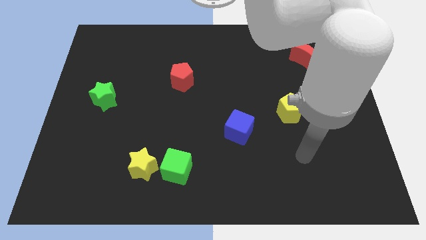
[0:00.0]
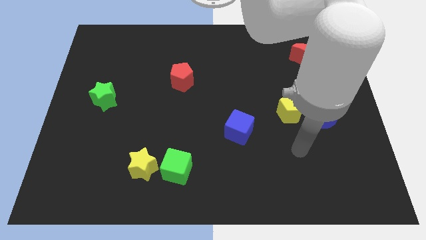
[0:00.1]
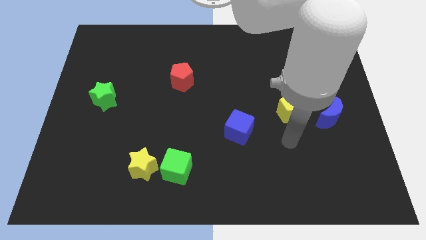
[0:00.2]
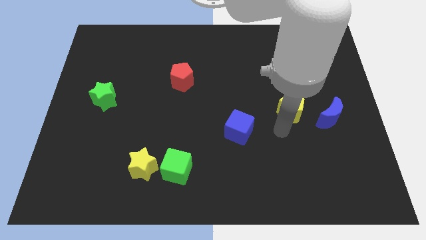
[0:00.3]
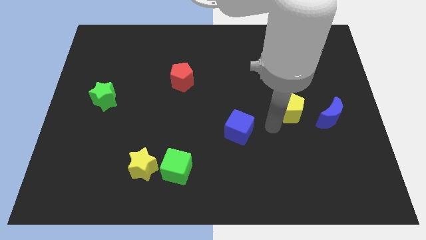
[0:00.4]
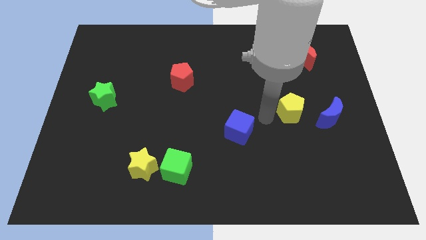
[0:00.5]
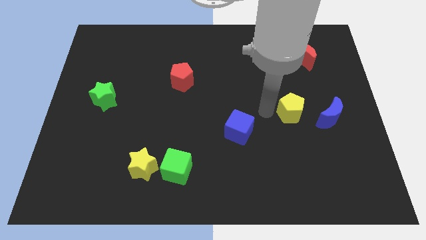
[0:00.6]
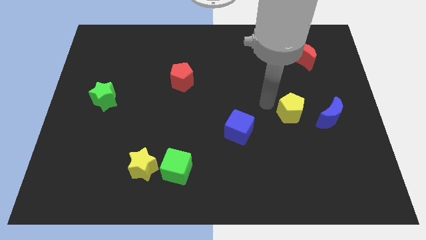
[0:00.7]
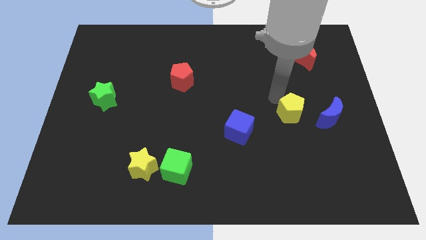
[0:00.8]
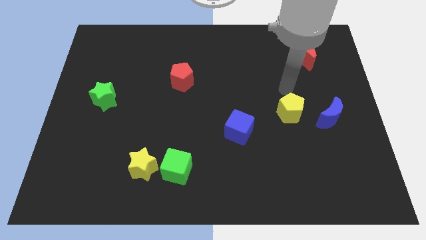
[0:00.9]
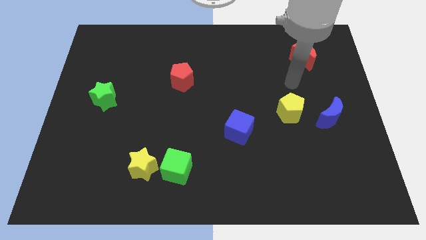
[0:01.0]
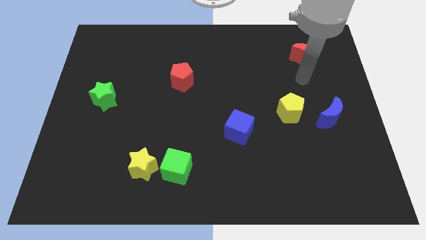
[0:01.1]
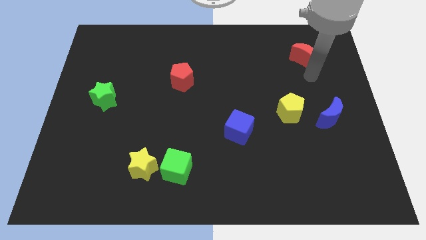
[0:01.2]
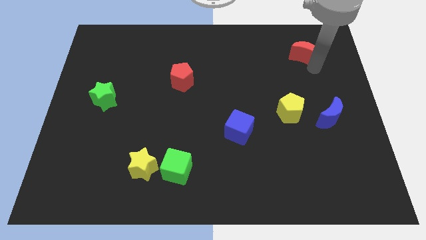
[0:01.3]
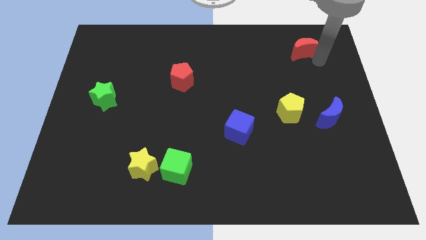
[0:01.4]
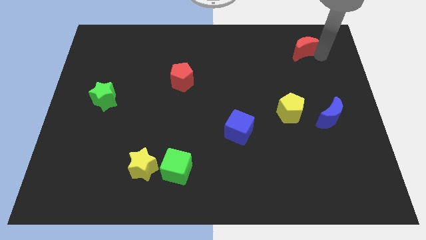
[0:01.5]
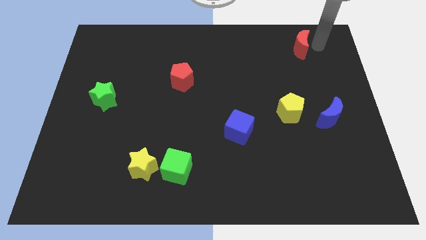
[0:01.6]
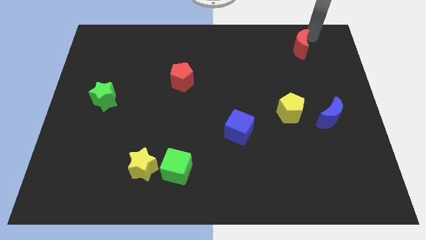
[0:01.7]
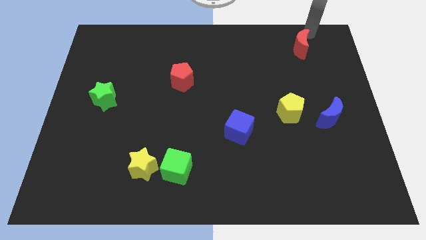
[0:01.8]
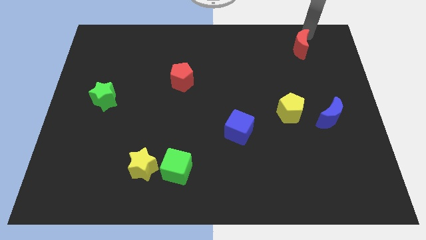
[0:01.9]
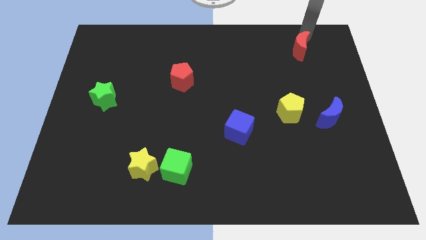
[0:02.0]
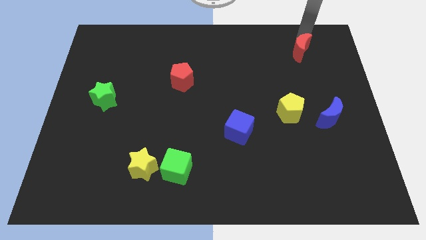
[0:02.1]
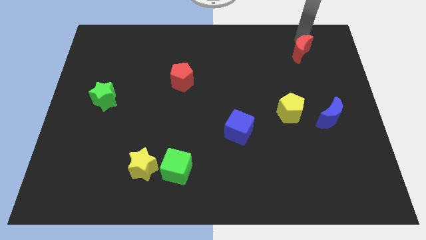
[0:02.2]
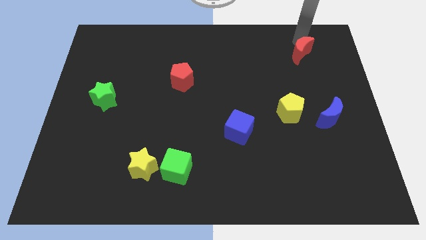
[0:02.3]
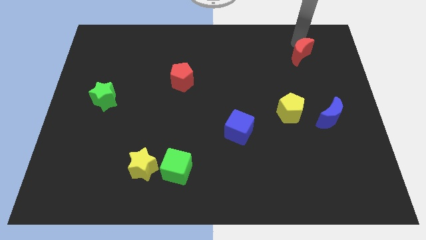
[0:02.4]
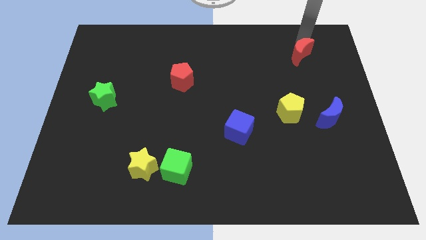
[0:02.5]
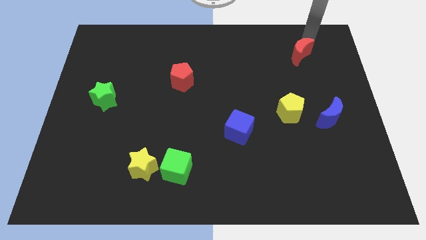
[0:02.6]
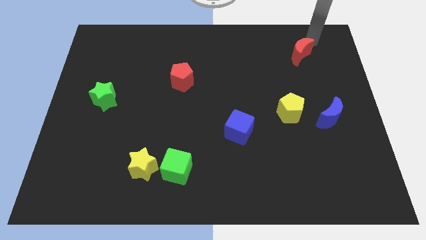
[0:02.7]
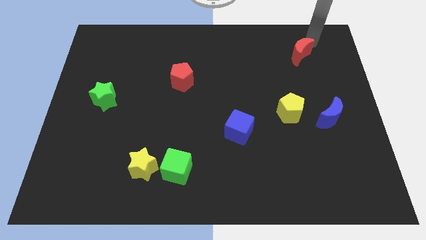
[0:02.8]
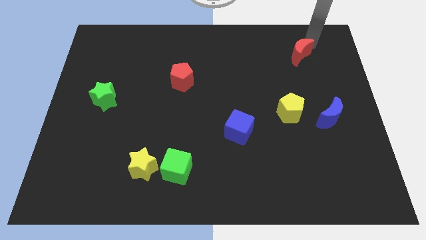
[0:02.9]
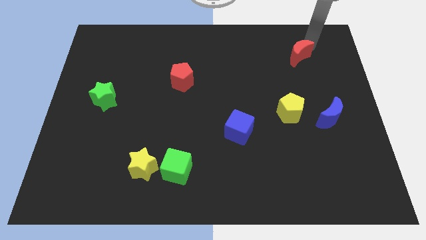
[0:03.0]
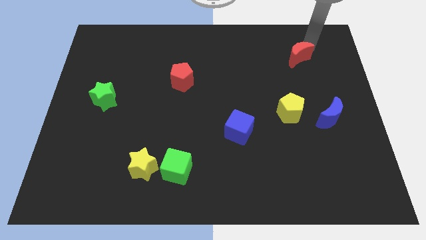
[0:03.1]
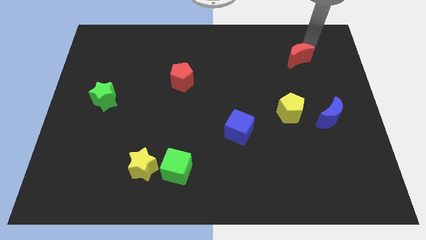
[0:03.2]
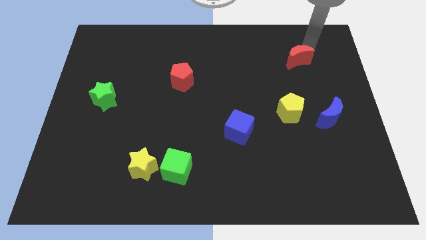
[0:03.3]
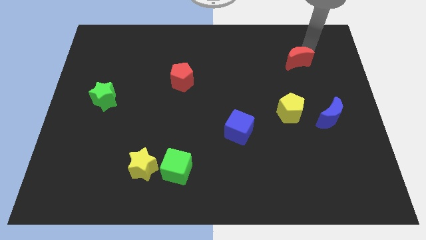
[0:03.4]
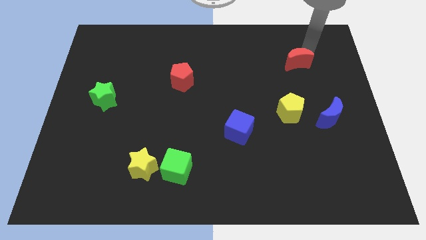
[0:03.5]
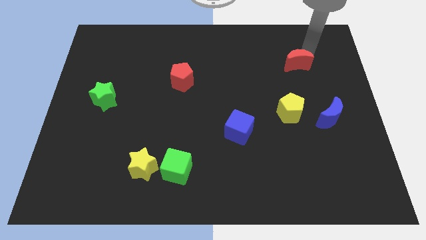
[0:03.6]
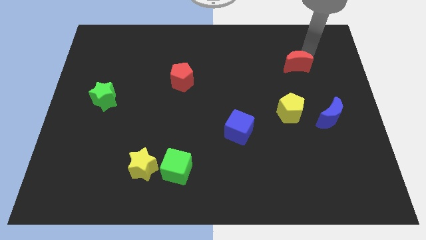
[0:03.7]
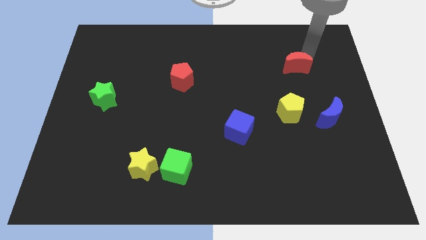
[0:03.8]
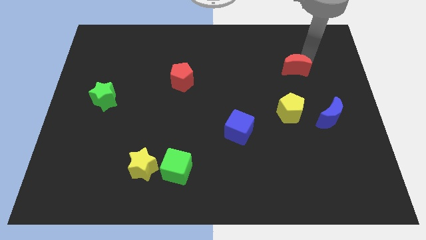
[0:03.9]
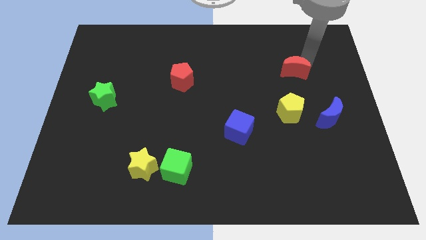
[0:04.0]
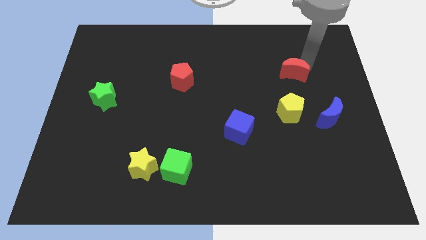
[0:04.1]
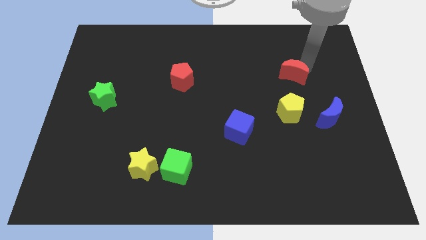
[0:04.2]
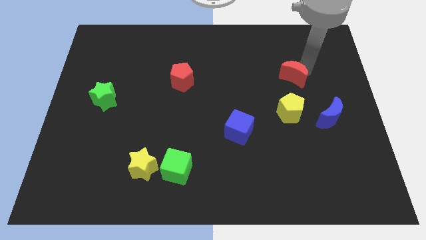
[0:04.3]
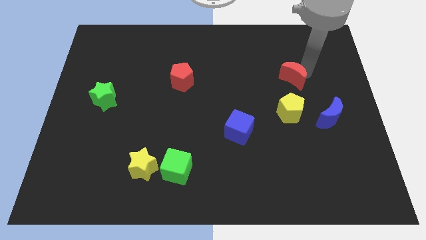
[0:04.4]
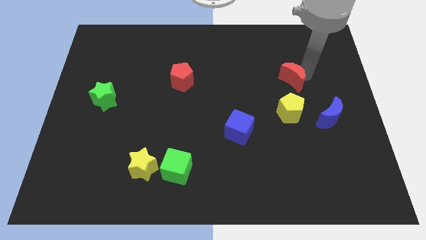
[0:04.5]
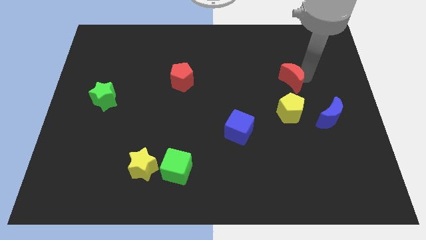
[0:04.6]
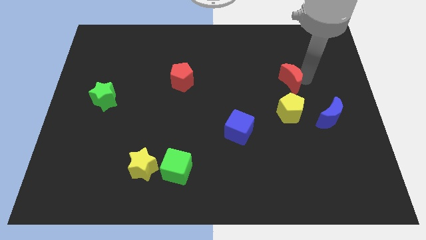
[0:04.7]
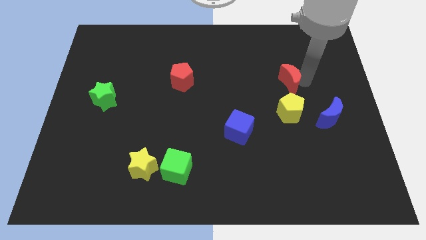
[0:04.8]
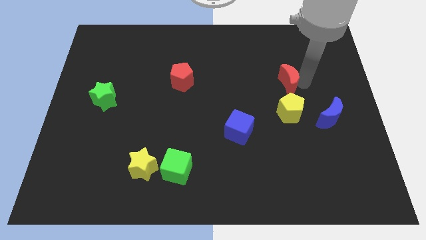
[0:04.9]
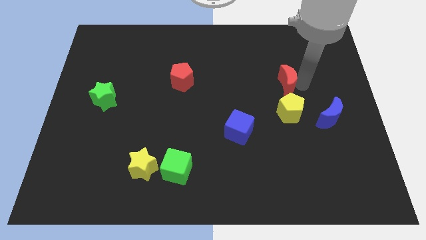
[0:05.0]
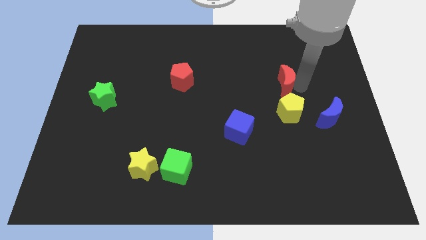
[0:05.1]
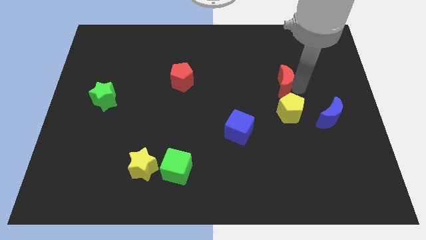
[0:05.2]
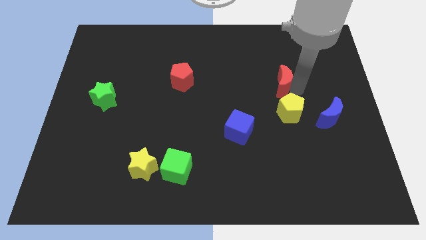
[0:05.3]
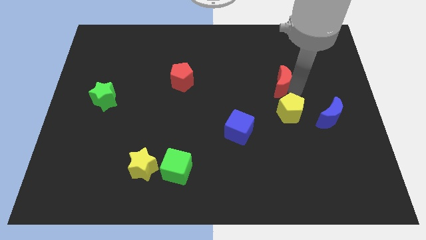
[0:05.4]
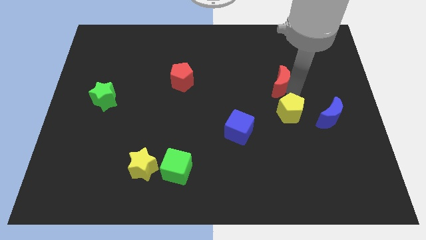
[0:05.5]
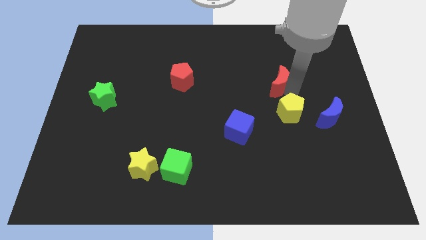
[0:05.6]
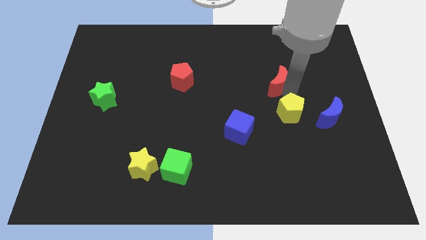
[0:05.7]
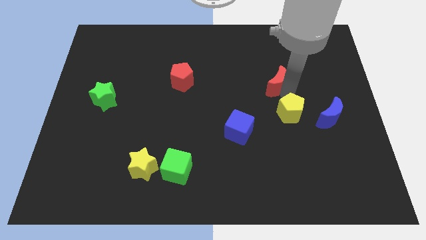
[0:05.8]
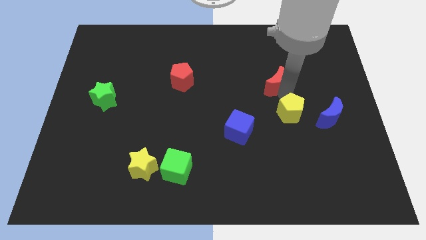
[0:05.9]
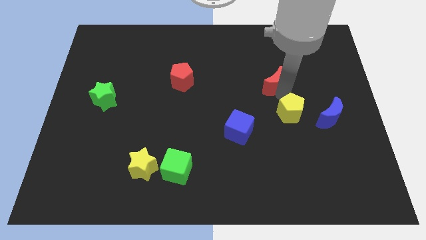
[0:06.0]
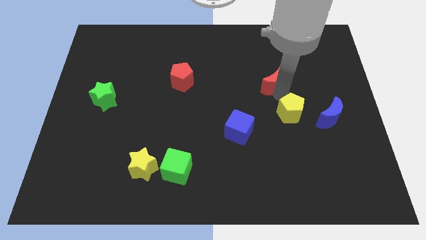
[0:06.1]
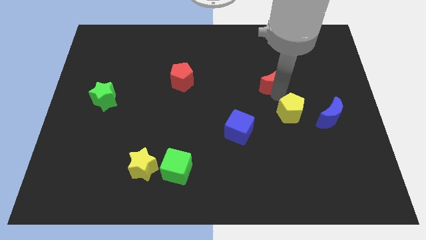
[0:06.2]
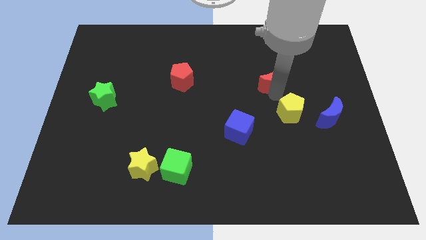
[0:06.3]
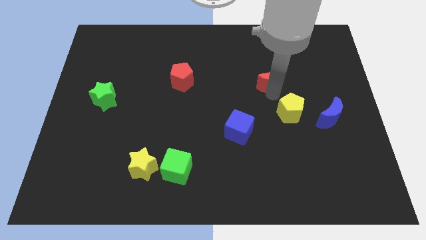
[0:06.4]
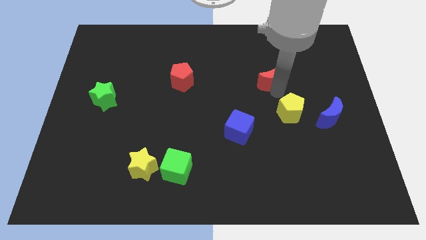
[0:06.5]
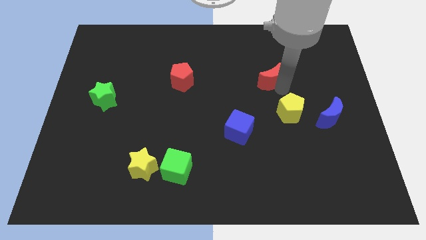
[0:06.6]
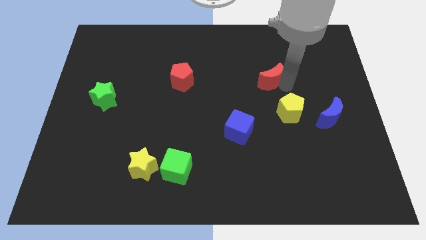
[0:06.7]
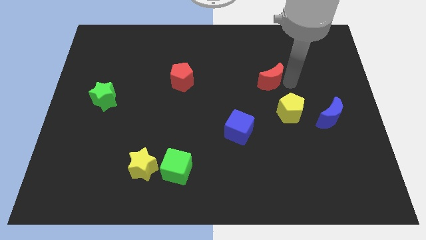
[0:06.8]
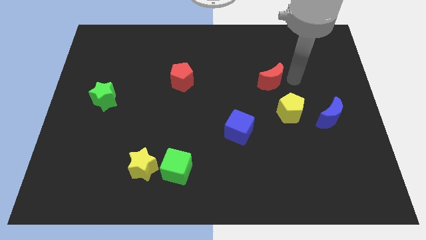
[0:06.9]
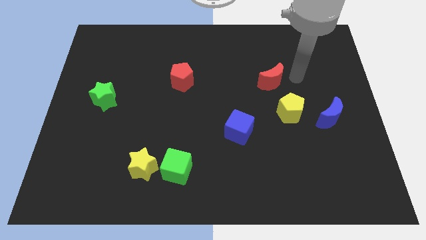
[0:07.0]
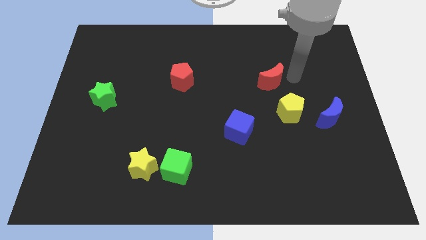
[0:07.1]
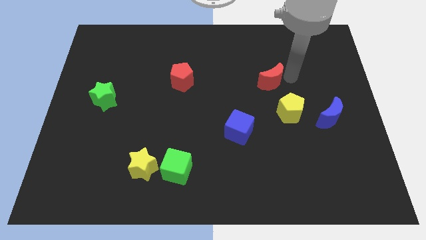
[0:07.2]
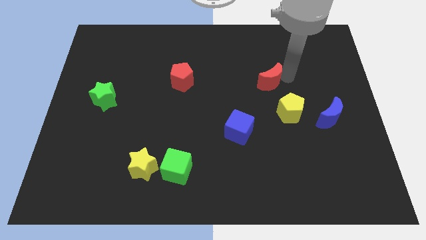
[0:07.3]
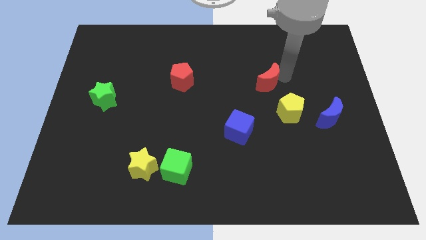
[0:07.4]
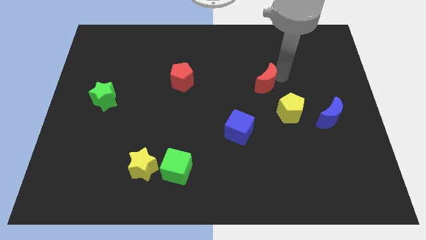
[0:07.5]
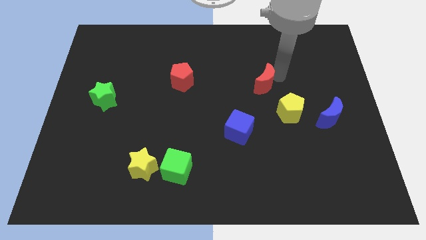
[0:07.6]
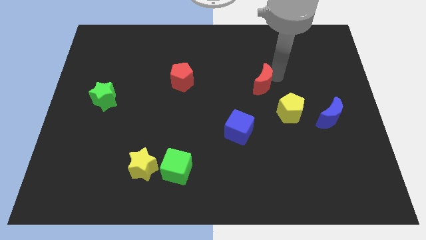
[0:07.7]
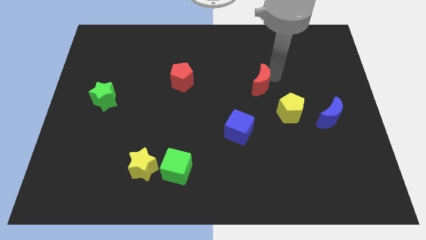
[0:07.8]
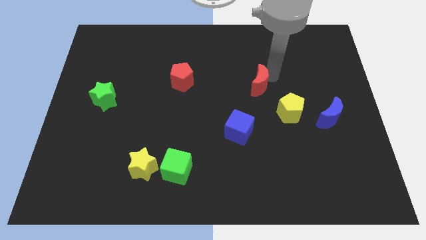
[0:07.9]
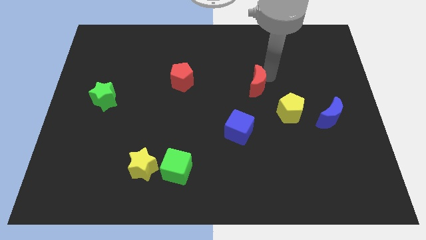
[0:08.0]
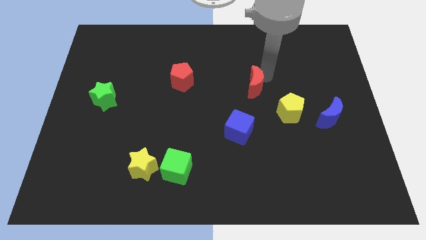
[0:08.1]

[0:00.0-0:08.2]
push the red moon above the blue cube
